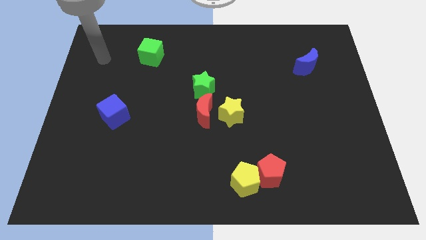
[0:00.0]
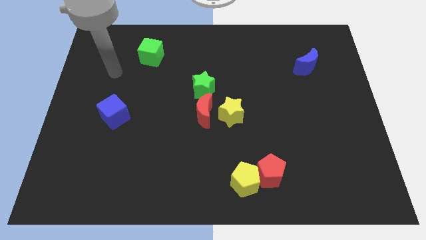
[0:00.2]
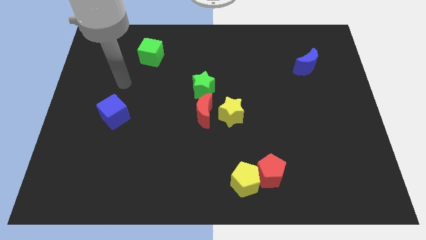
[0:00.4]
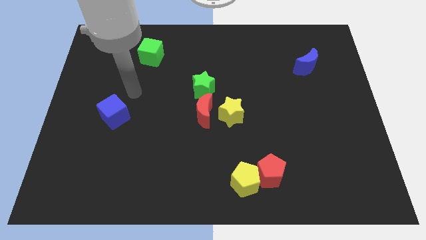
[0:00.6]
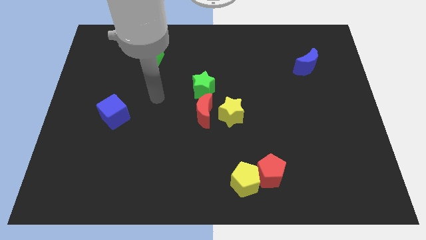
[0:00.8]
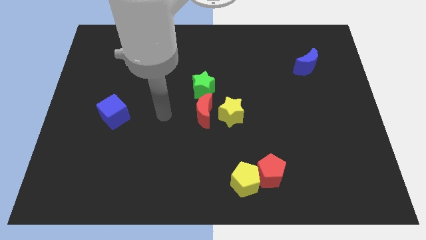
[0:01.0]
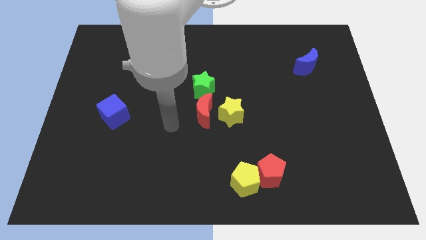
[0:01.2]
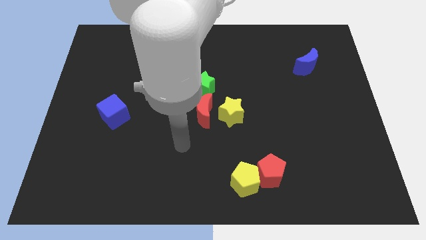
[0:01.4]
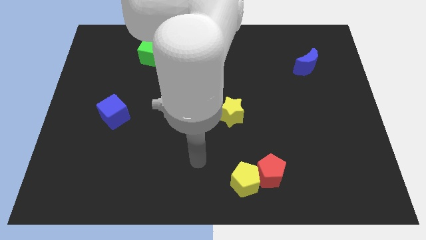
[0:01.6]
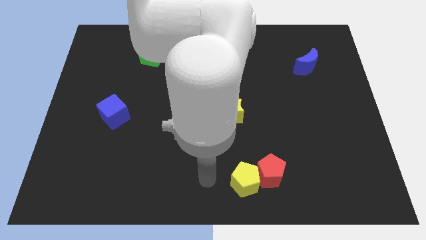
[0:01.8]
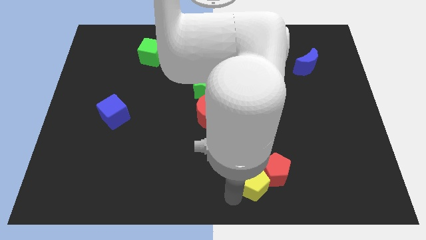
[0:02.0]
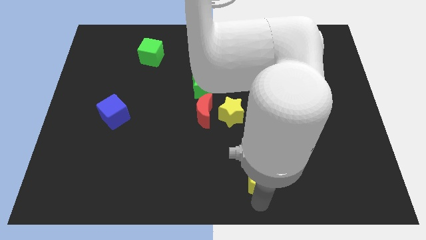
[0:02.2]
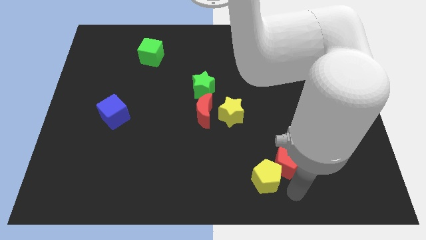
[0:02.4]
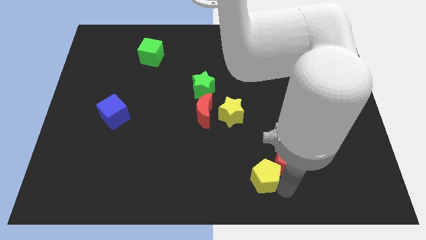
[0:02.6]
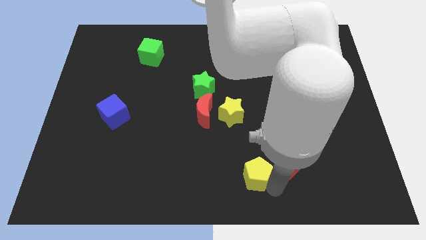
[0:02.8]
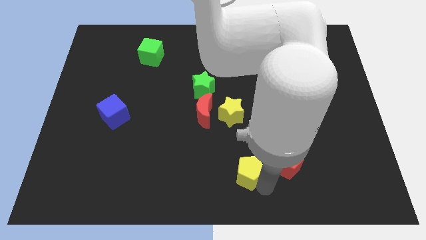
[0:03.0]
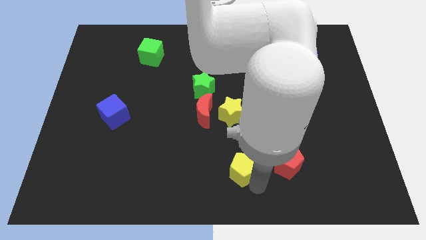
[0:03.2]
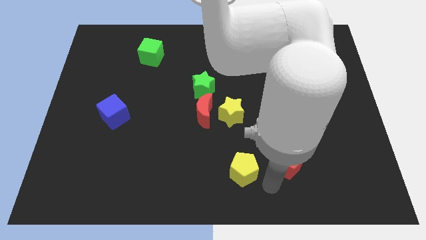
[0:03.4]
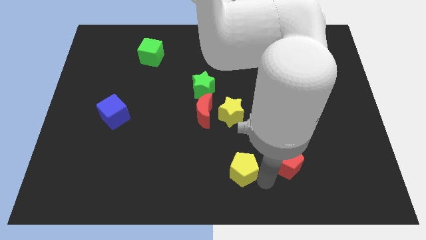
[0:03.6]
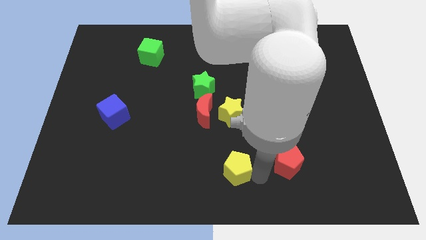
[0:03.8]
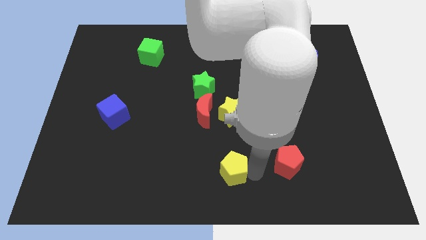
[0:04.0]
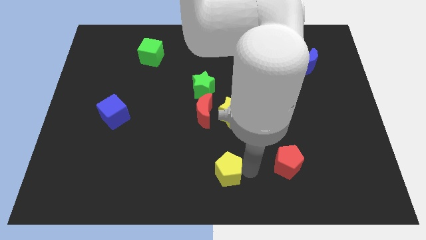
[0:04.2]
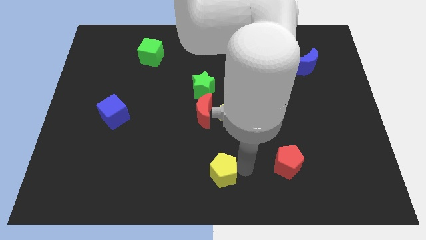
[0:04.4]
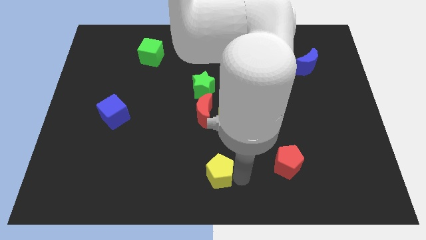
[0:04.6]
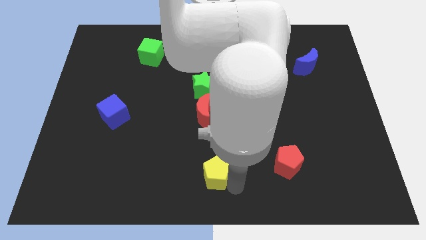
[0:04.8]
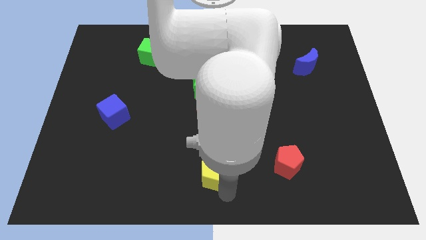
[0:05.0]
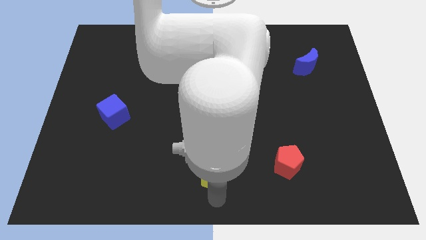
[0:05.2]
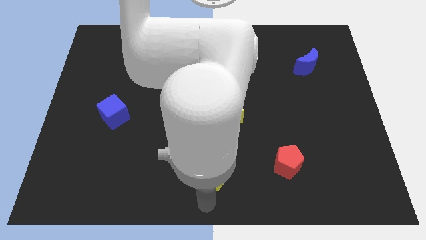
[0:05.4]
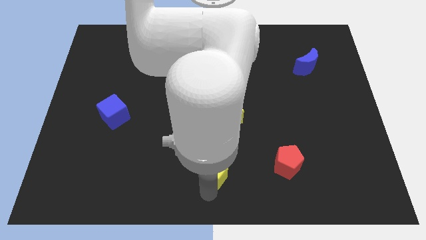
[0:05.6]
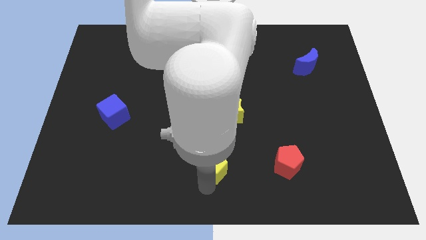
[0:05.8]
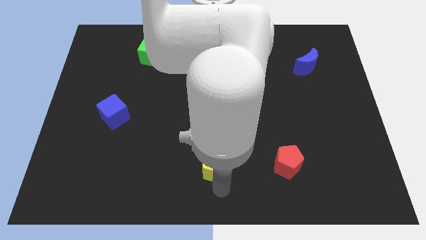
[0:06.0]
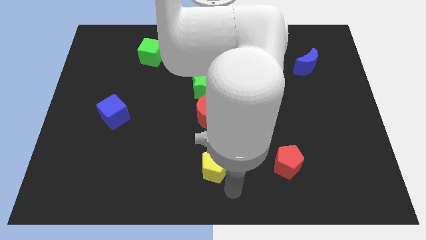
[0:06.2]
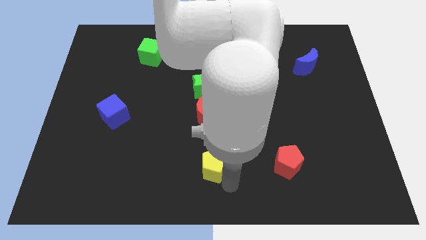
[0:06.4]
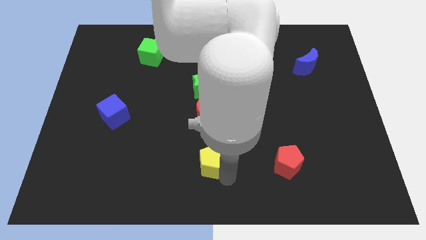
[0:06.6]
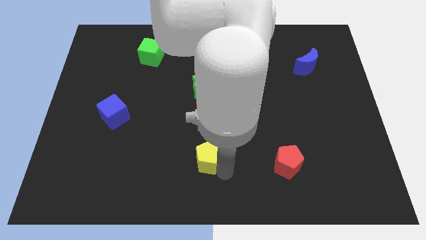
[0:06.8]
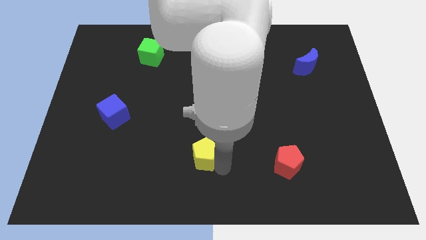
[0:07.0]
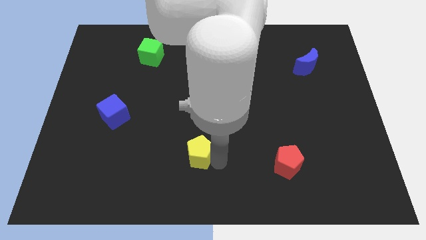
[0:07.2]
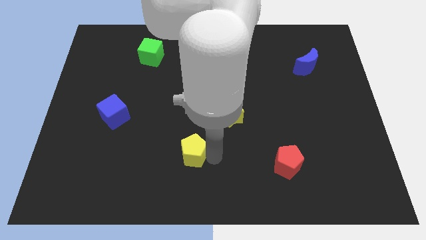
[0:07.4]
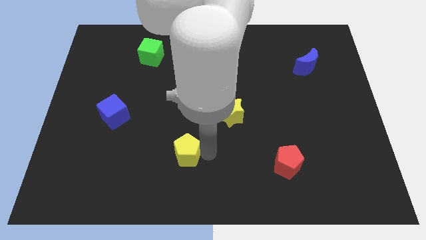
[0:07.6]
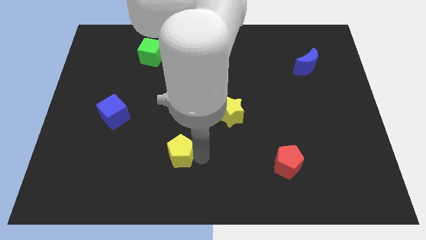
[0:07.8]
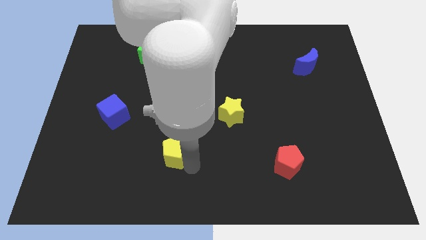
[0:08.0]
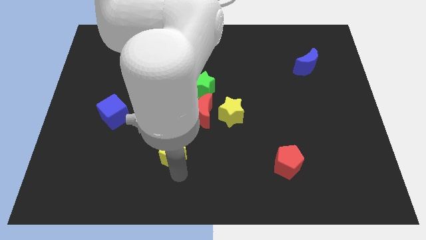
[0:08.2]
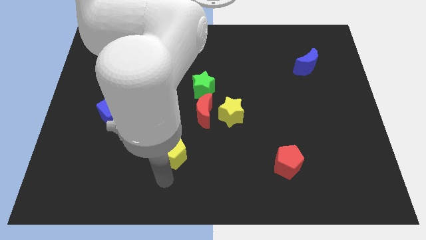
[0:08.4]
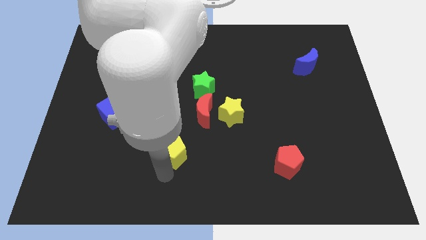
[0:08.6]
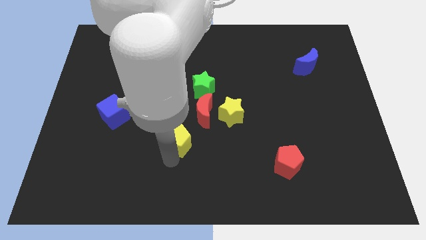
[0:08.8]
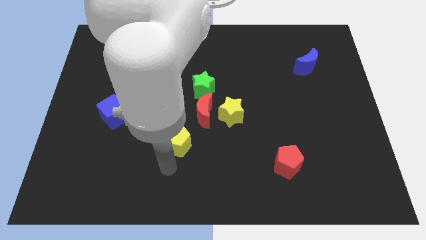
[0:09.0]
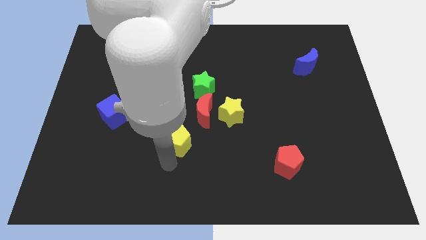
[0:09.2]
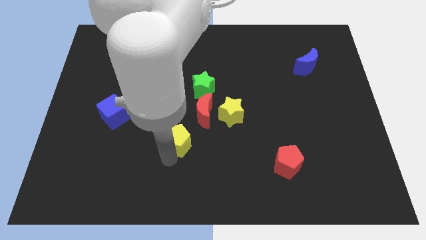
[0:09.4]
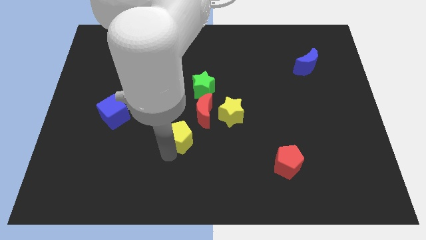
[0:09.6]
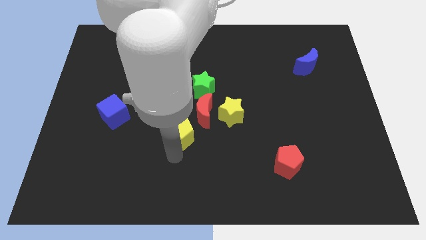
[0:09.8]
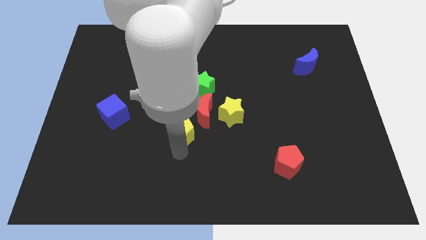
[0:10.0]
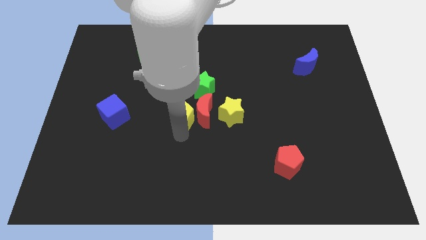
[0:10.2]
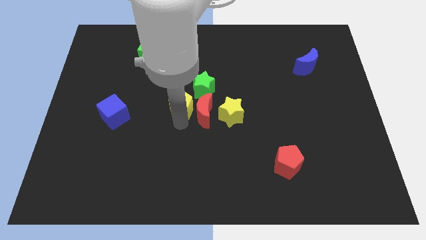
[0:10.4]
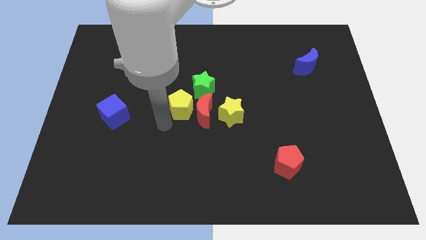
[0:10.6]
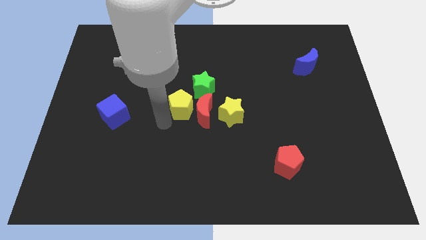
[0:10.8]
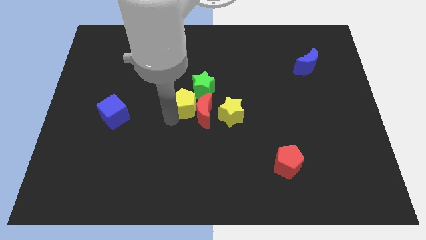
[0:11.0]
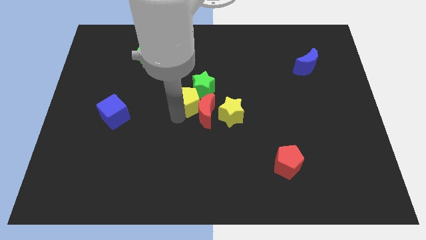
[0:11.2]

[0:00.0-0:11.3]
push the yellow pentagon to the green star
